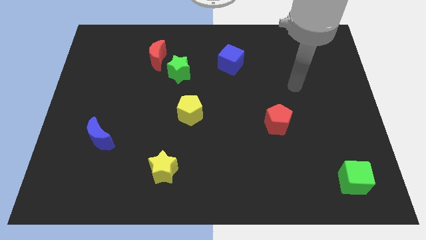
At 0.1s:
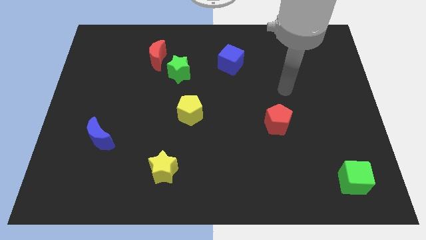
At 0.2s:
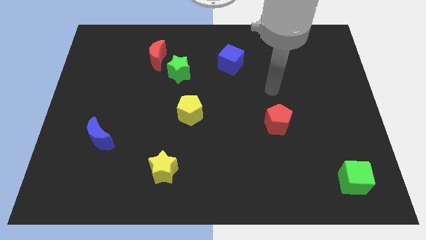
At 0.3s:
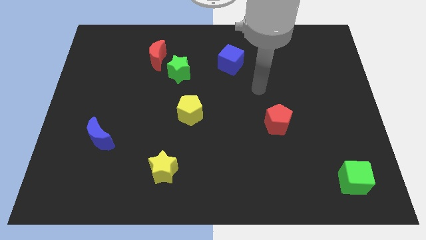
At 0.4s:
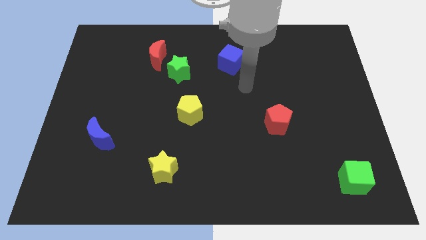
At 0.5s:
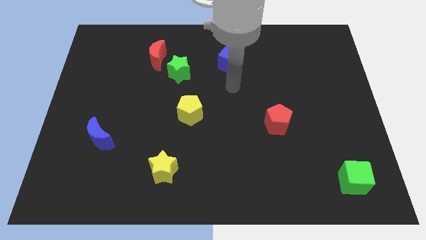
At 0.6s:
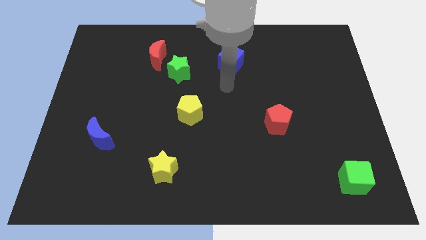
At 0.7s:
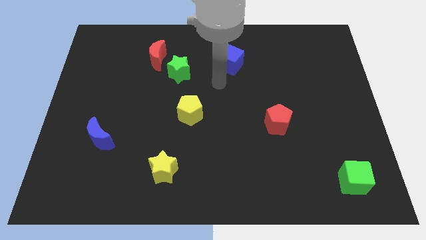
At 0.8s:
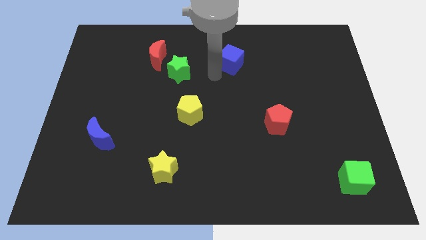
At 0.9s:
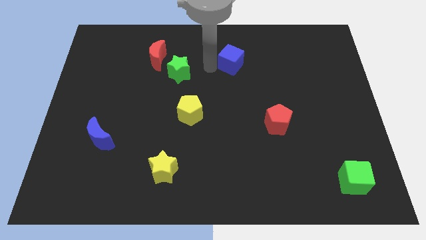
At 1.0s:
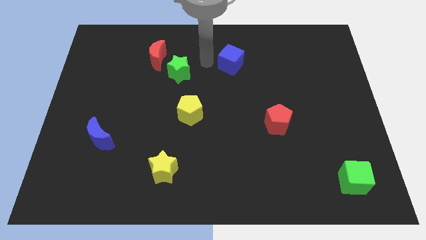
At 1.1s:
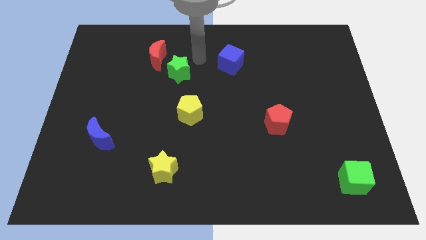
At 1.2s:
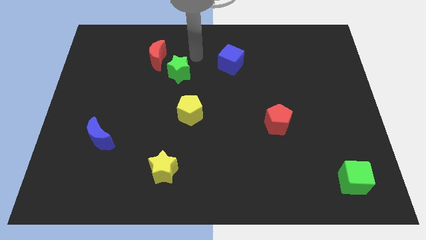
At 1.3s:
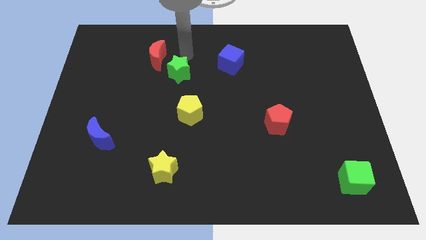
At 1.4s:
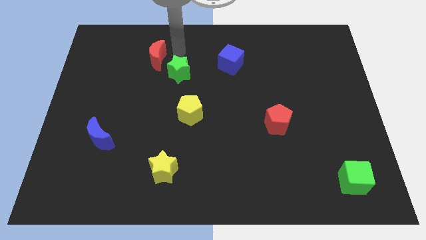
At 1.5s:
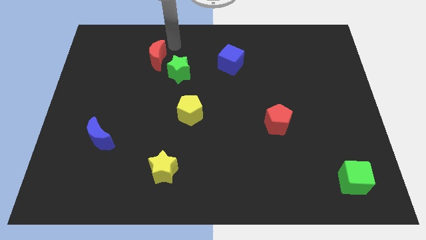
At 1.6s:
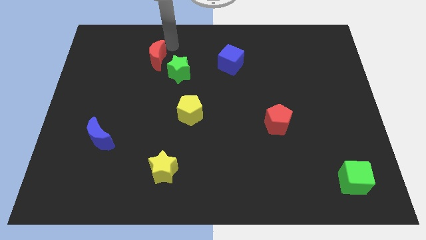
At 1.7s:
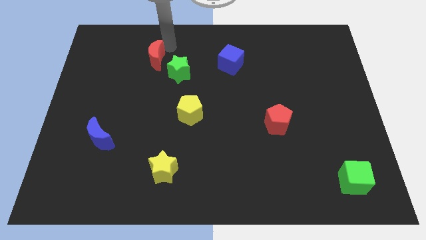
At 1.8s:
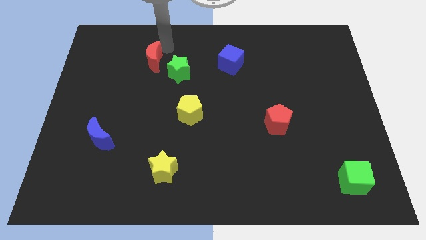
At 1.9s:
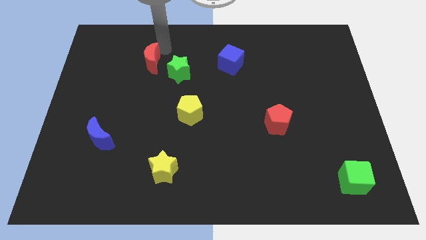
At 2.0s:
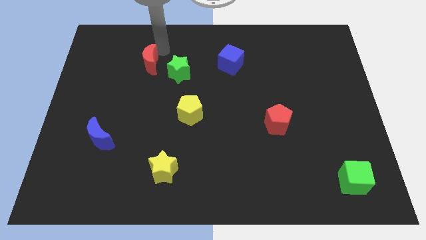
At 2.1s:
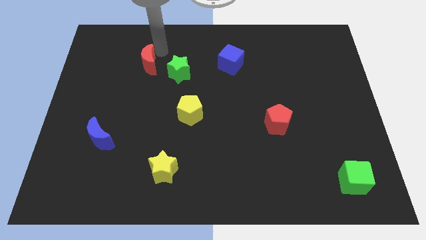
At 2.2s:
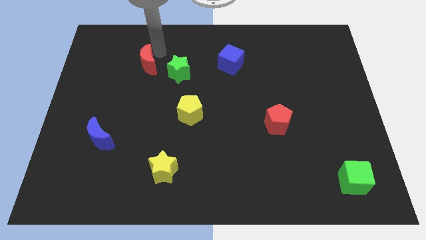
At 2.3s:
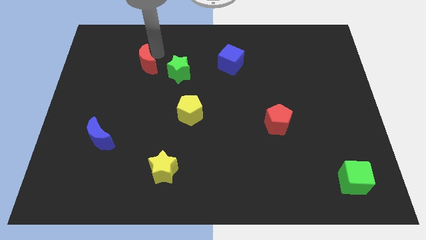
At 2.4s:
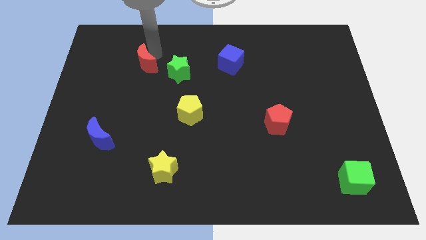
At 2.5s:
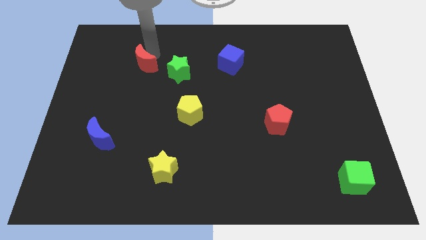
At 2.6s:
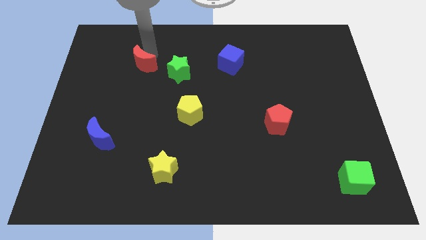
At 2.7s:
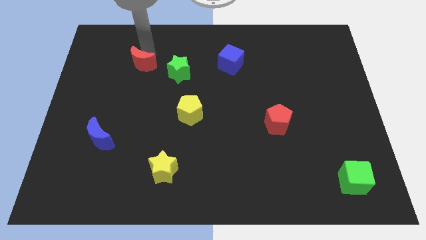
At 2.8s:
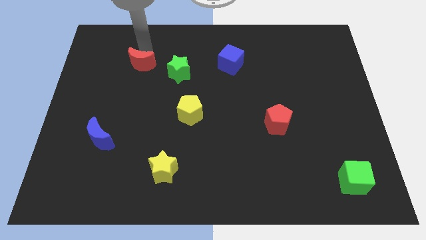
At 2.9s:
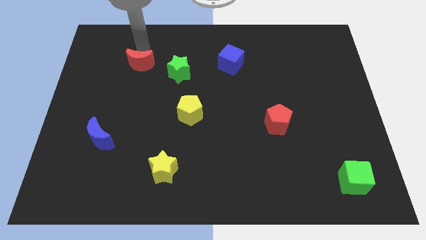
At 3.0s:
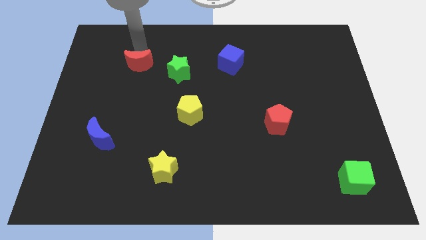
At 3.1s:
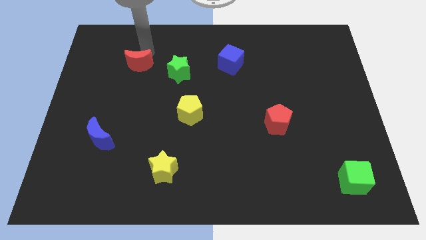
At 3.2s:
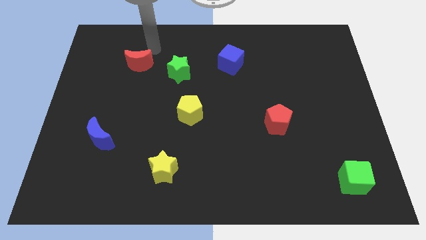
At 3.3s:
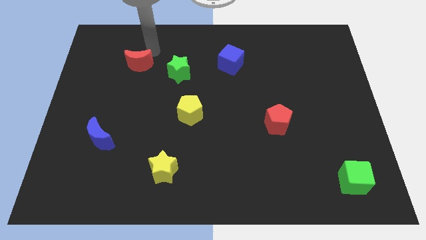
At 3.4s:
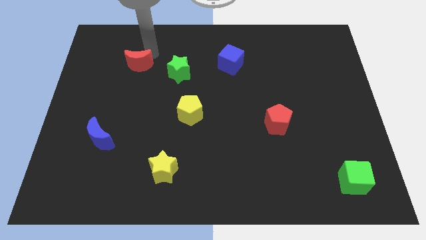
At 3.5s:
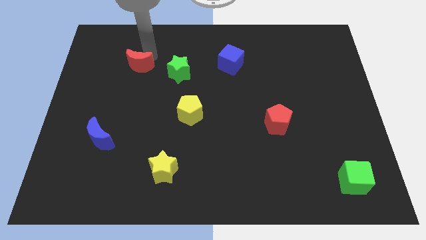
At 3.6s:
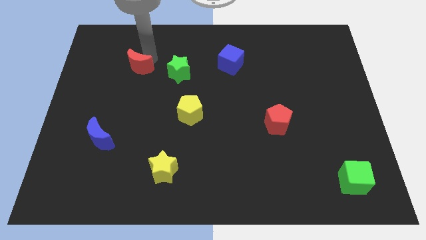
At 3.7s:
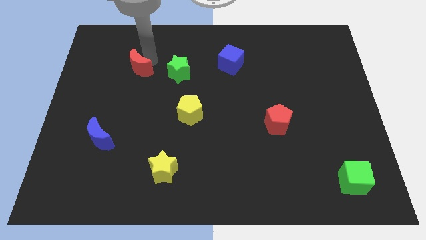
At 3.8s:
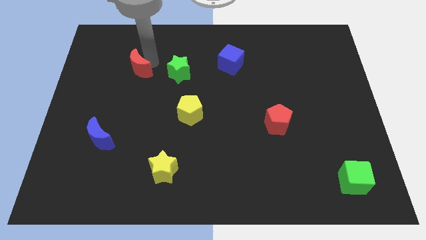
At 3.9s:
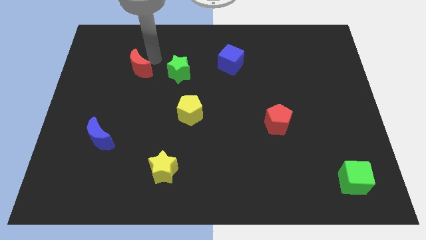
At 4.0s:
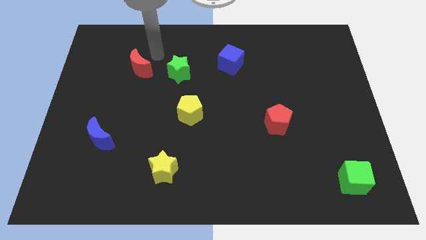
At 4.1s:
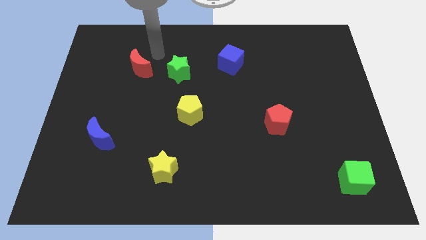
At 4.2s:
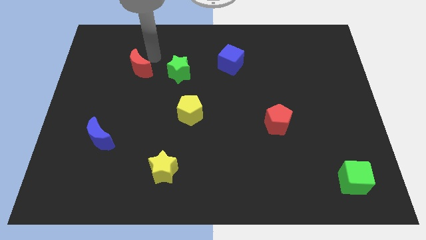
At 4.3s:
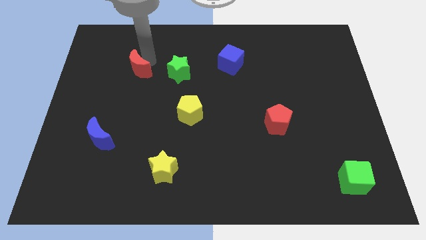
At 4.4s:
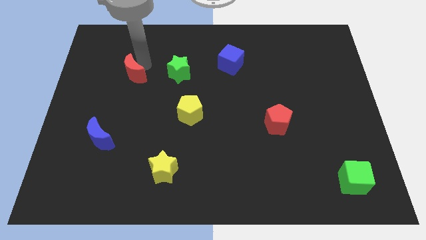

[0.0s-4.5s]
push the red moon diagonally downwards and left slightly

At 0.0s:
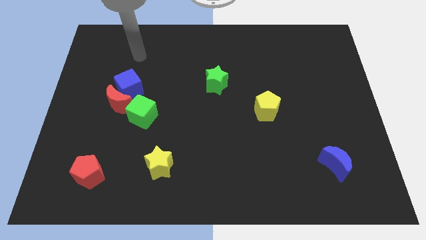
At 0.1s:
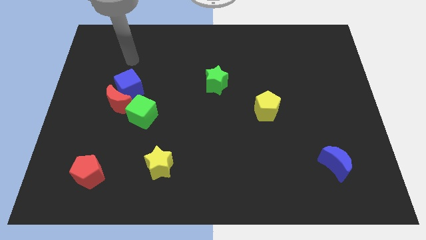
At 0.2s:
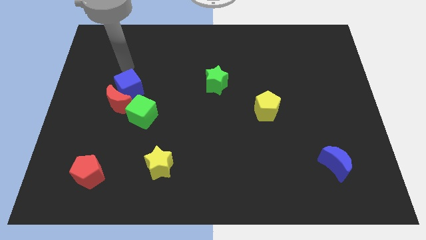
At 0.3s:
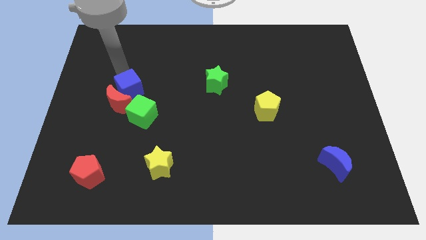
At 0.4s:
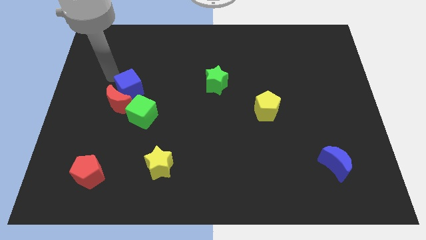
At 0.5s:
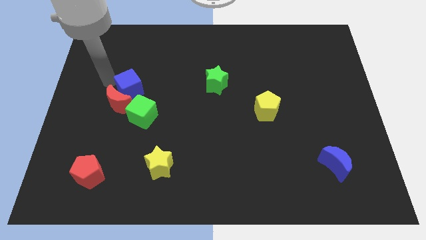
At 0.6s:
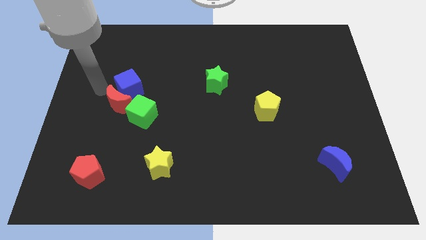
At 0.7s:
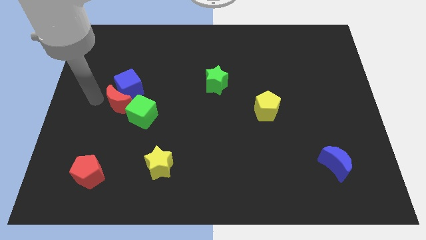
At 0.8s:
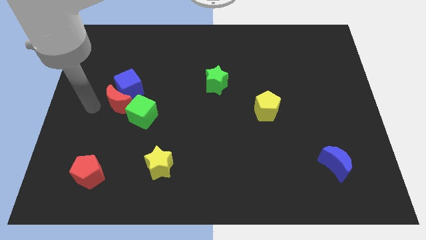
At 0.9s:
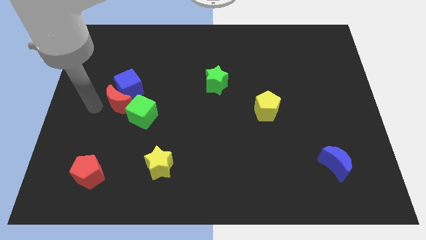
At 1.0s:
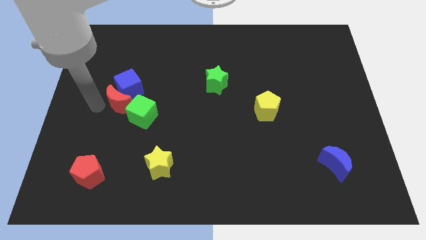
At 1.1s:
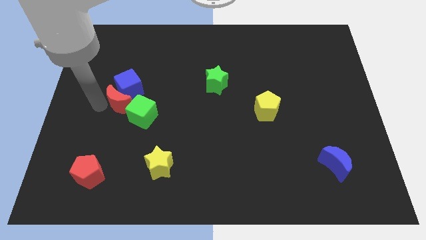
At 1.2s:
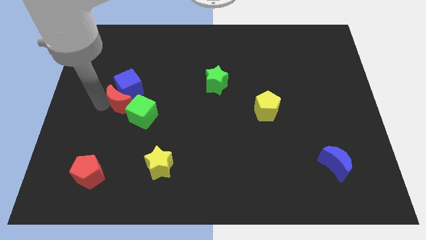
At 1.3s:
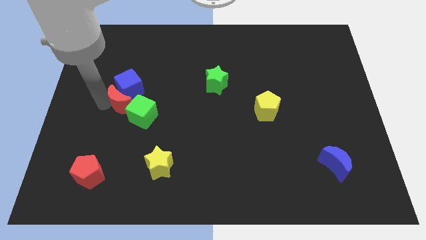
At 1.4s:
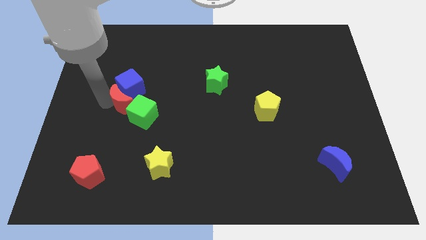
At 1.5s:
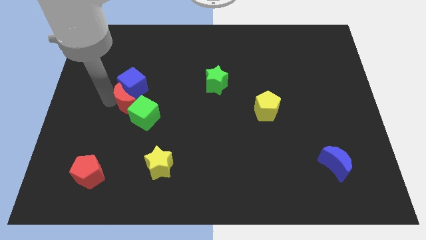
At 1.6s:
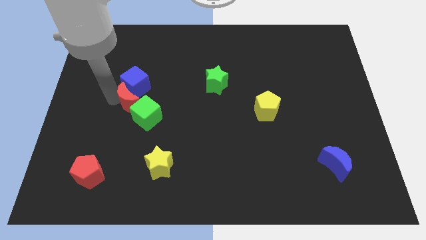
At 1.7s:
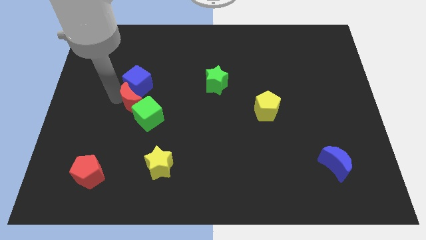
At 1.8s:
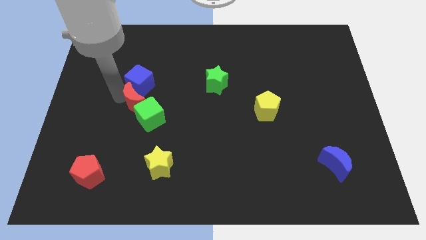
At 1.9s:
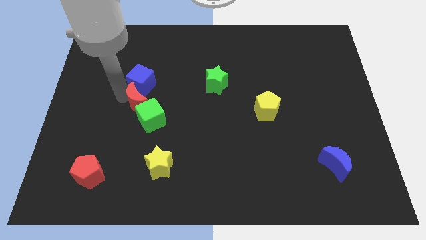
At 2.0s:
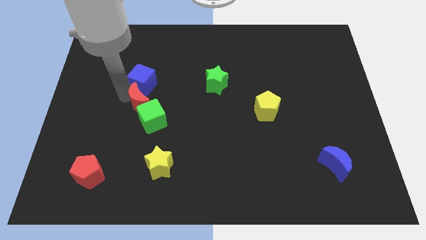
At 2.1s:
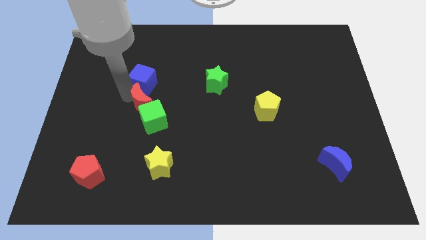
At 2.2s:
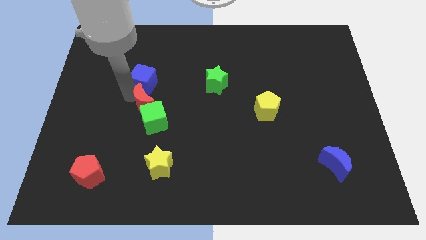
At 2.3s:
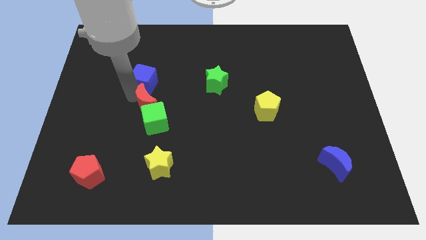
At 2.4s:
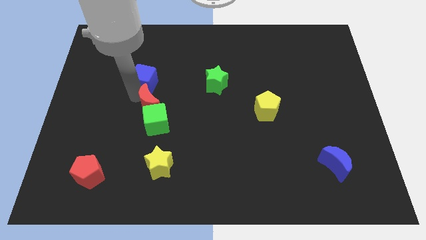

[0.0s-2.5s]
move the red moon a little bit to the right

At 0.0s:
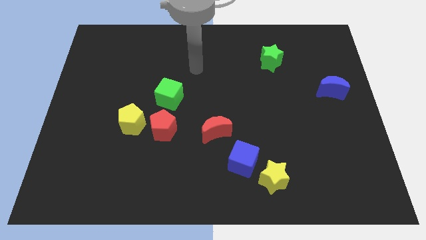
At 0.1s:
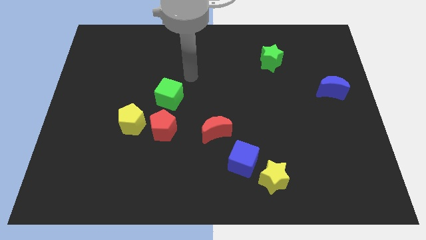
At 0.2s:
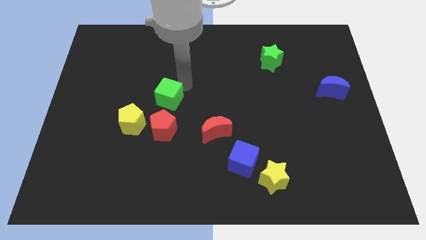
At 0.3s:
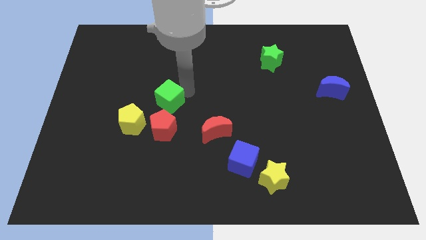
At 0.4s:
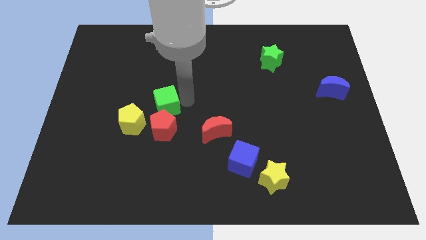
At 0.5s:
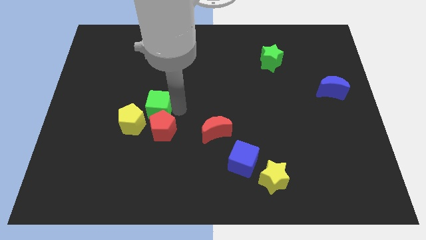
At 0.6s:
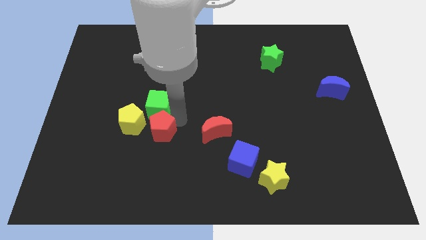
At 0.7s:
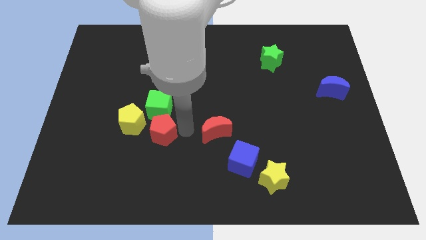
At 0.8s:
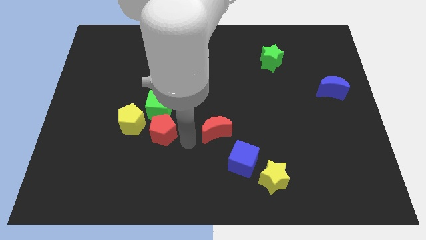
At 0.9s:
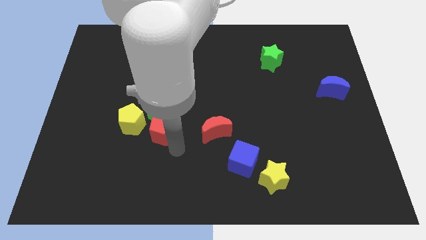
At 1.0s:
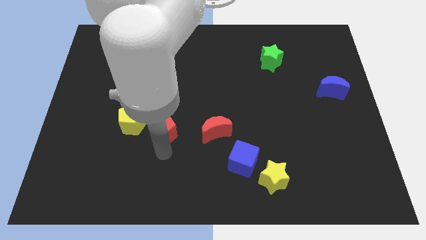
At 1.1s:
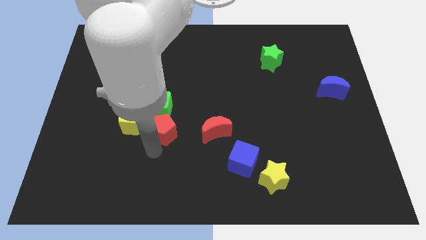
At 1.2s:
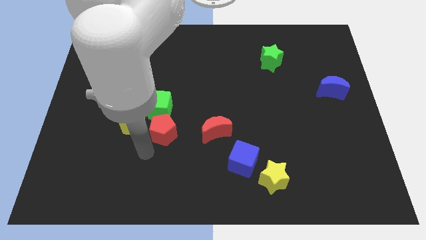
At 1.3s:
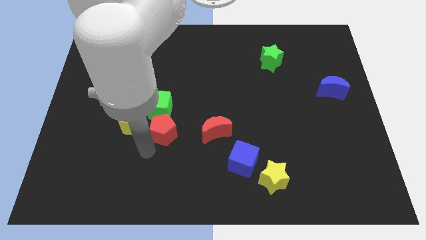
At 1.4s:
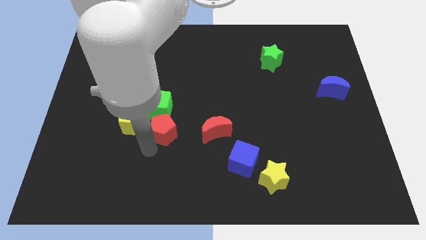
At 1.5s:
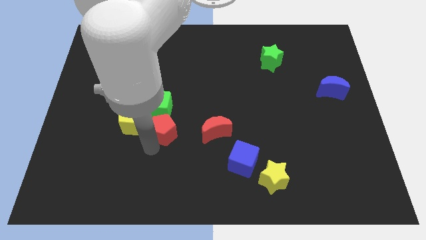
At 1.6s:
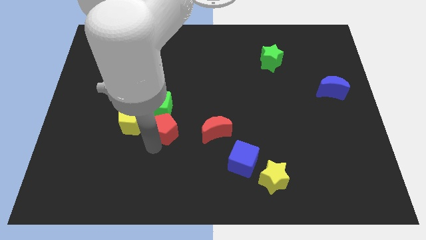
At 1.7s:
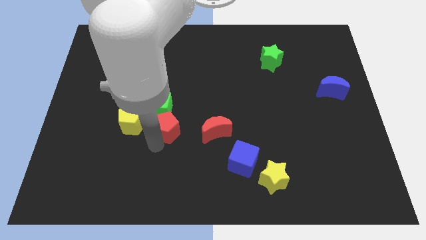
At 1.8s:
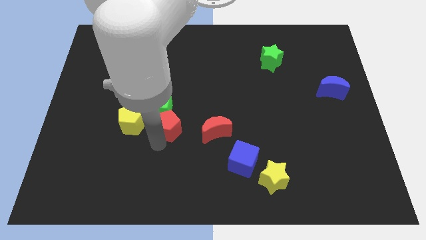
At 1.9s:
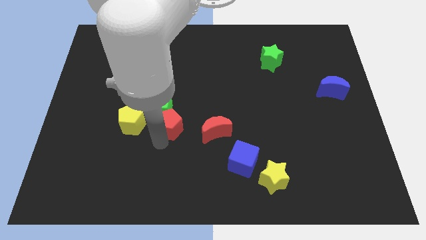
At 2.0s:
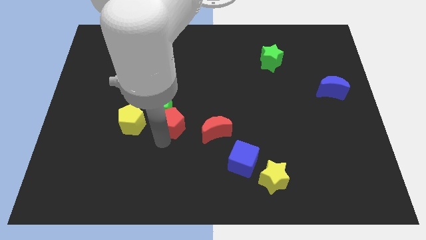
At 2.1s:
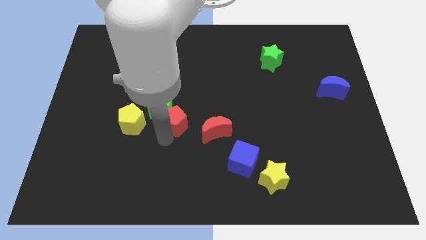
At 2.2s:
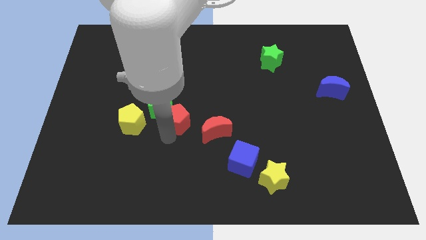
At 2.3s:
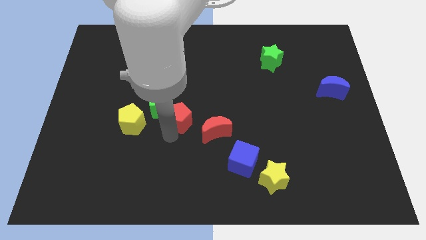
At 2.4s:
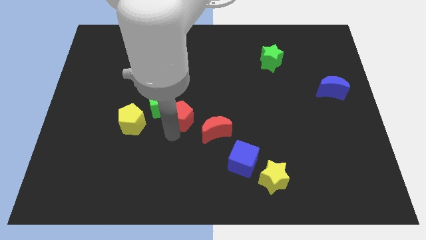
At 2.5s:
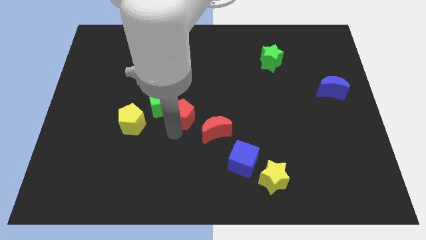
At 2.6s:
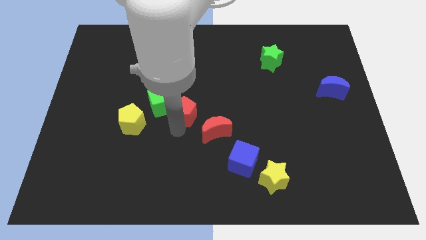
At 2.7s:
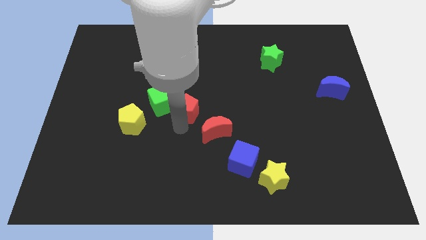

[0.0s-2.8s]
move the red pentagon up and right a bit
